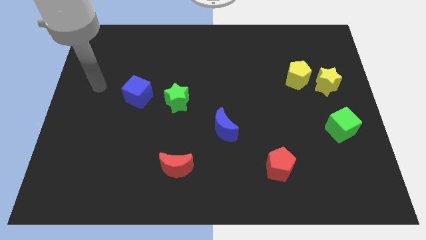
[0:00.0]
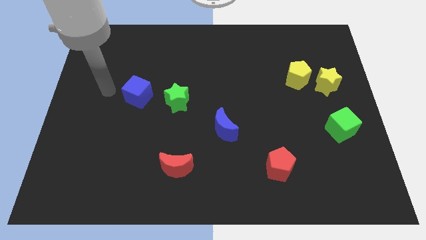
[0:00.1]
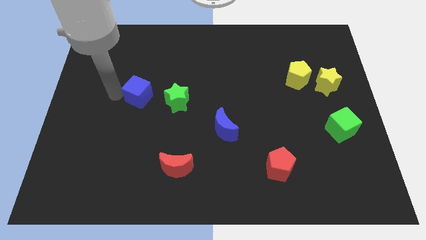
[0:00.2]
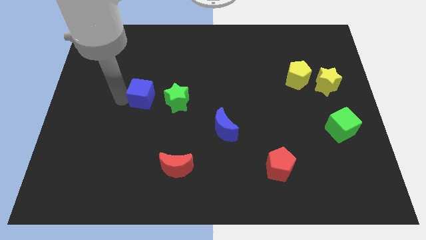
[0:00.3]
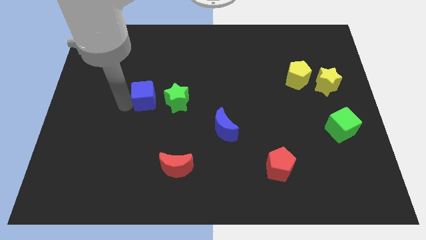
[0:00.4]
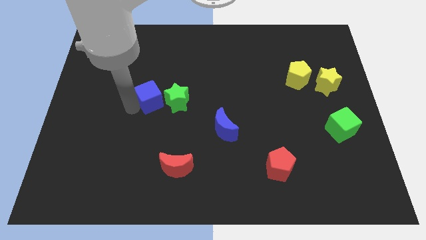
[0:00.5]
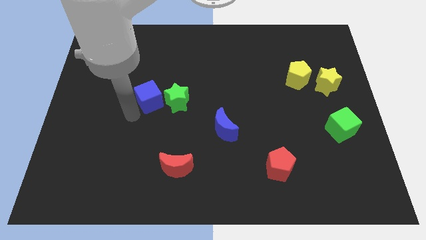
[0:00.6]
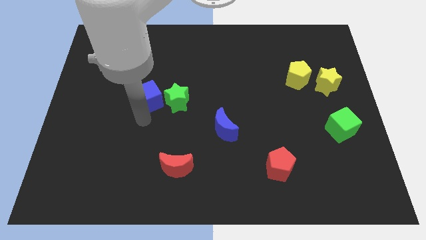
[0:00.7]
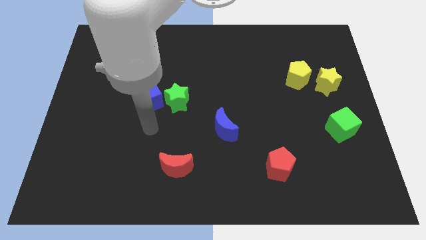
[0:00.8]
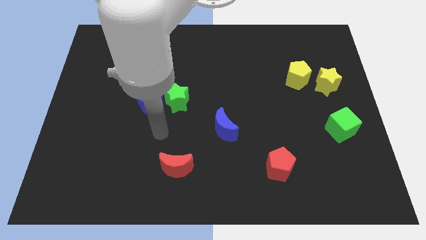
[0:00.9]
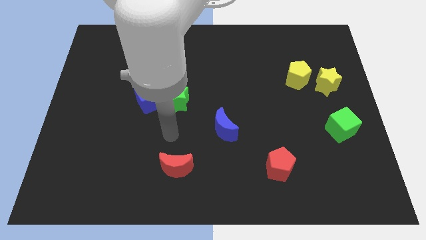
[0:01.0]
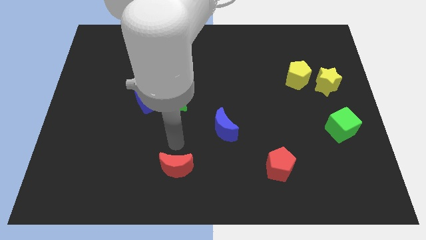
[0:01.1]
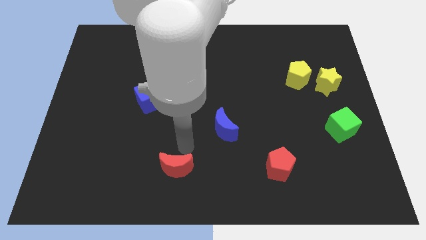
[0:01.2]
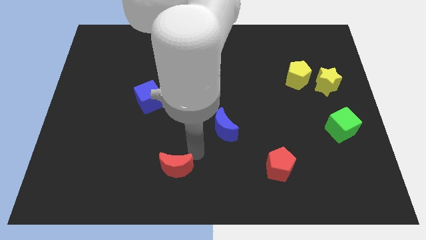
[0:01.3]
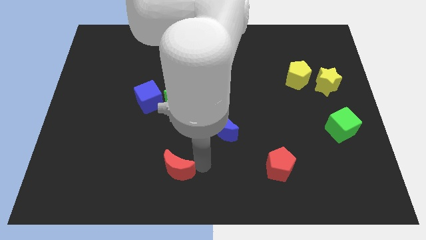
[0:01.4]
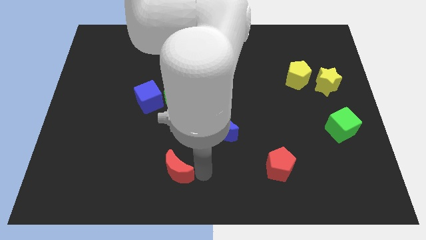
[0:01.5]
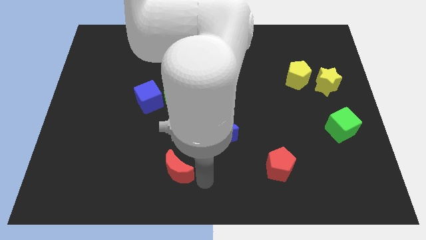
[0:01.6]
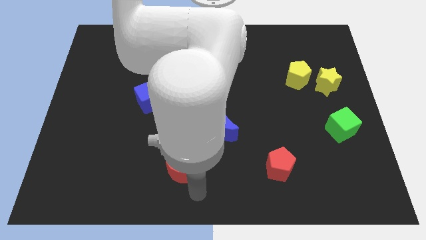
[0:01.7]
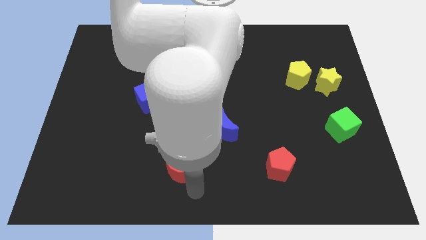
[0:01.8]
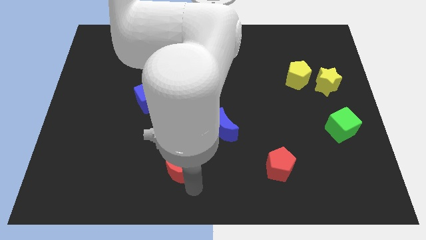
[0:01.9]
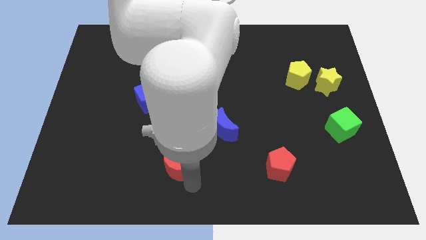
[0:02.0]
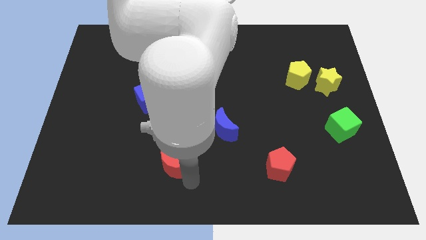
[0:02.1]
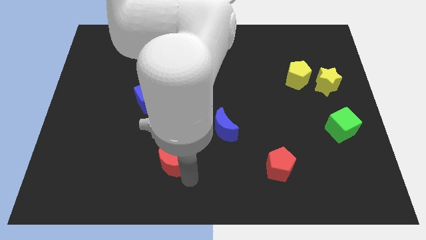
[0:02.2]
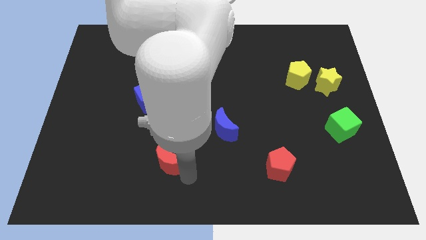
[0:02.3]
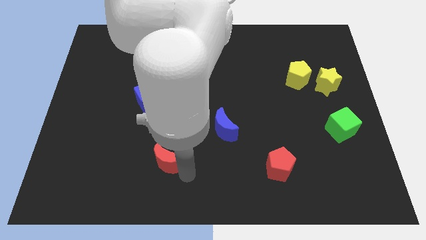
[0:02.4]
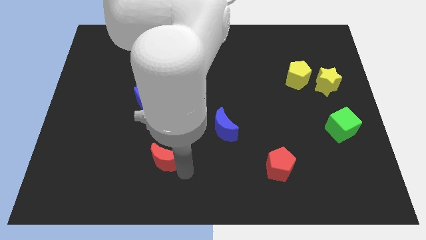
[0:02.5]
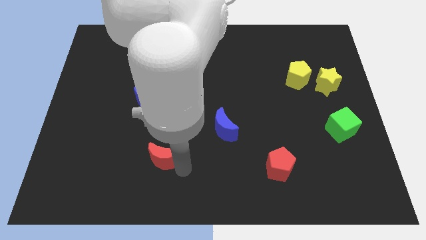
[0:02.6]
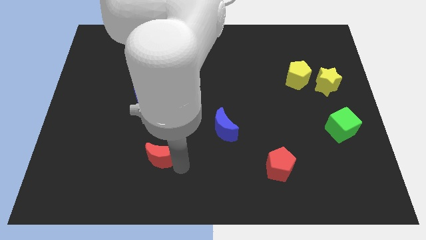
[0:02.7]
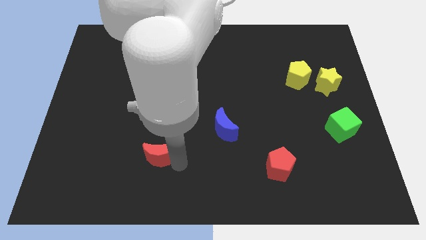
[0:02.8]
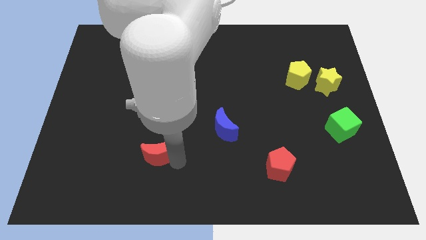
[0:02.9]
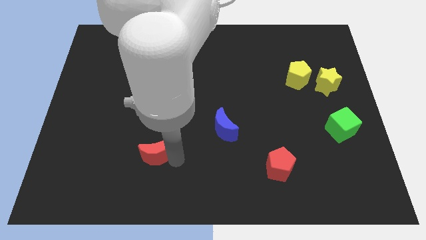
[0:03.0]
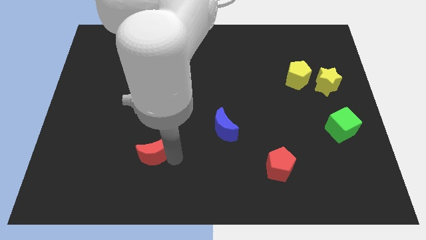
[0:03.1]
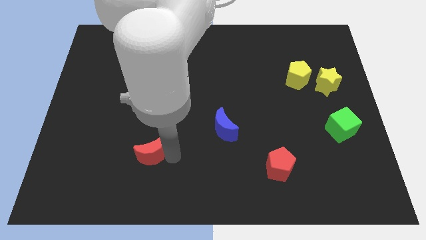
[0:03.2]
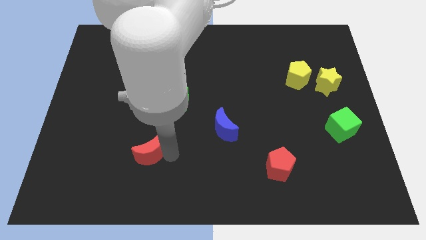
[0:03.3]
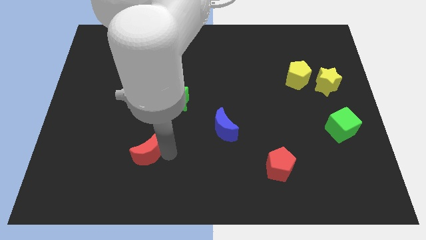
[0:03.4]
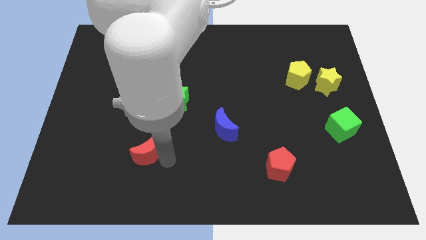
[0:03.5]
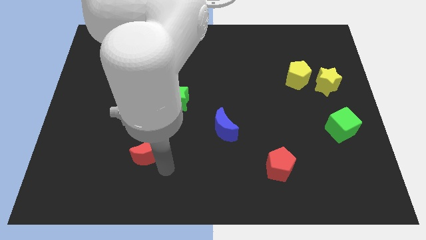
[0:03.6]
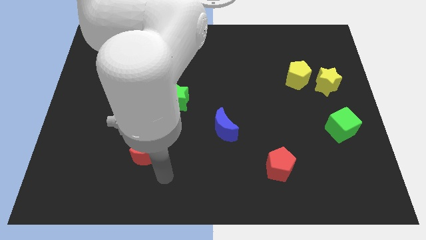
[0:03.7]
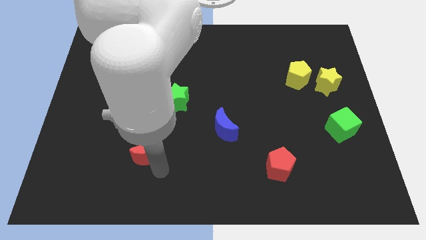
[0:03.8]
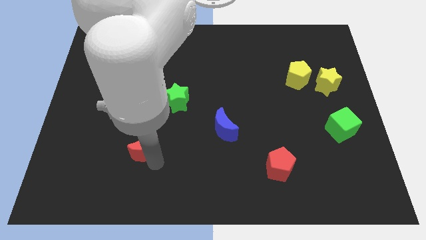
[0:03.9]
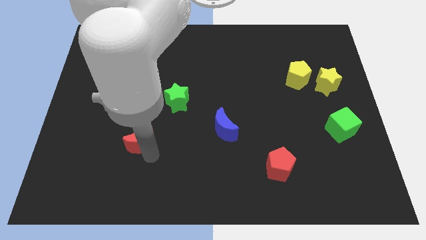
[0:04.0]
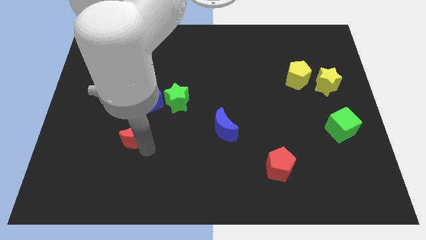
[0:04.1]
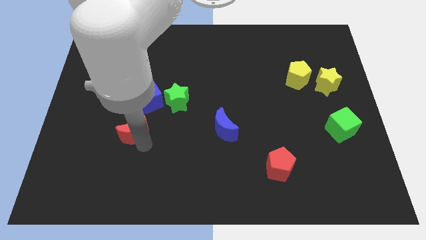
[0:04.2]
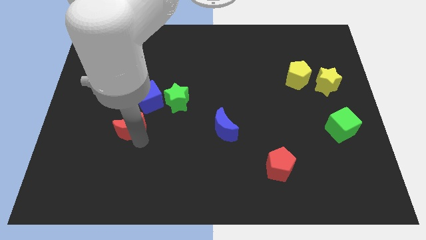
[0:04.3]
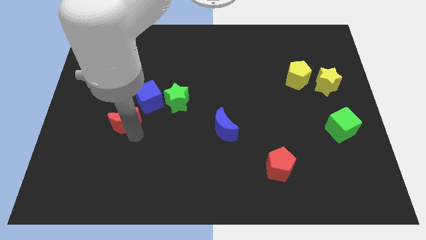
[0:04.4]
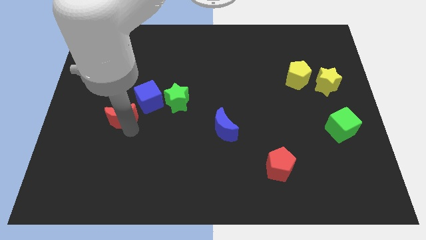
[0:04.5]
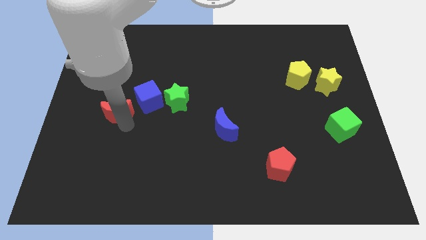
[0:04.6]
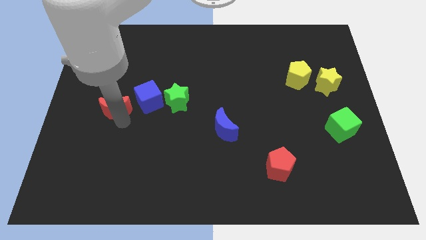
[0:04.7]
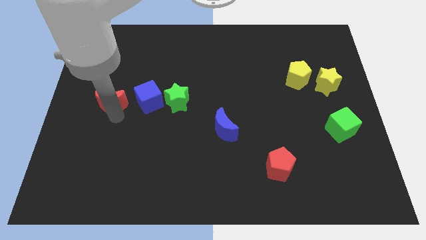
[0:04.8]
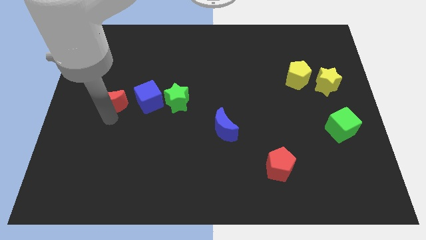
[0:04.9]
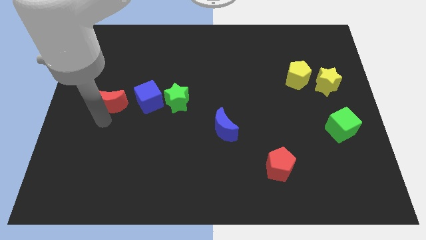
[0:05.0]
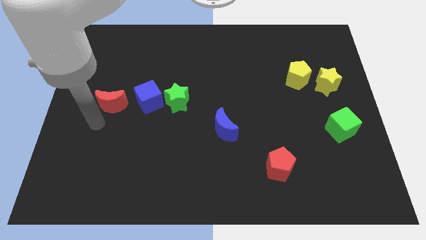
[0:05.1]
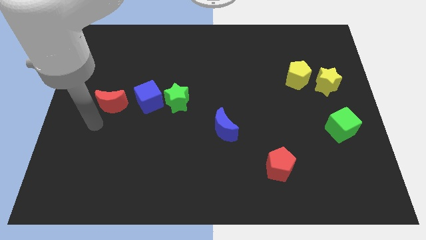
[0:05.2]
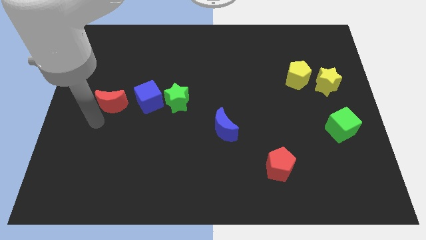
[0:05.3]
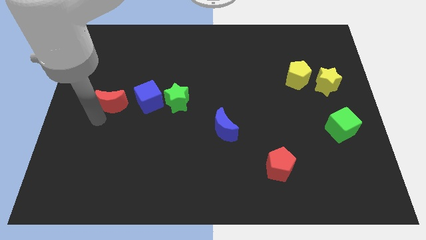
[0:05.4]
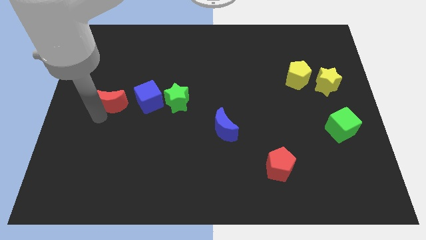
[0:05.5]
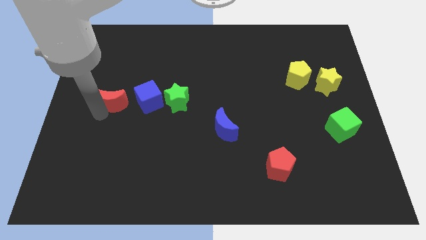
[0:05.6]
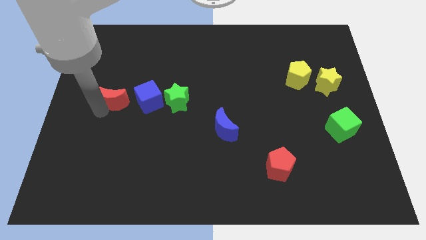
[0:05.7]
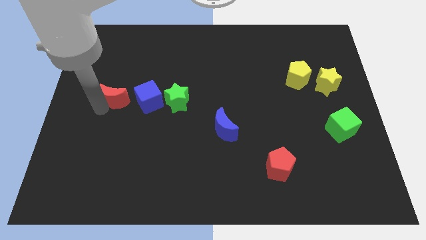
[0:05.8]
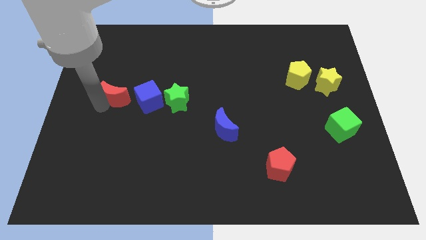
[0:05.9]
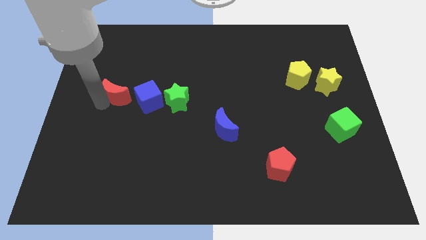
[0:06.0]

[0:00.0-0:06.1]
put the red moon diagonally up and to the left of the blue cube

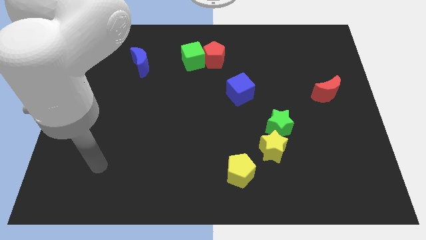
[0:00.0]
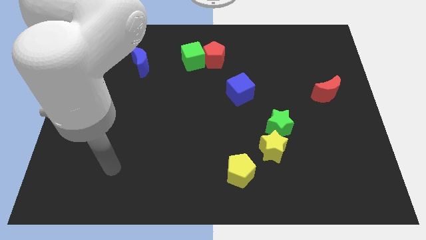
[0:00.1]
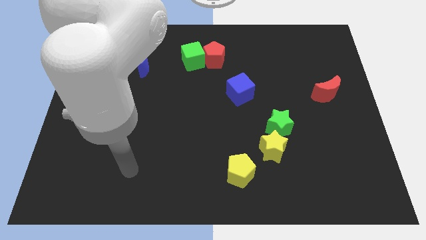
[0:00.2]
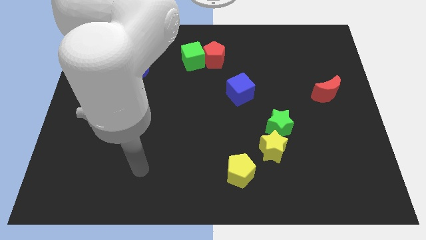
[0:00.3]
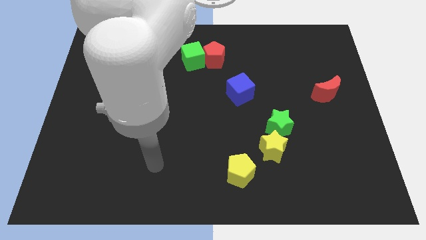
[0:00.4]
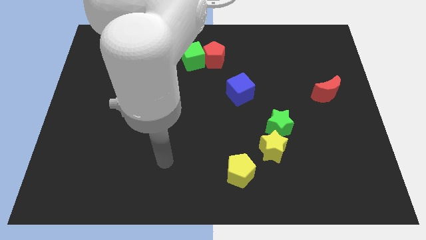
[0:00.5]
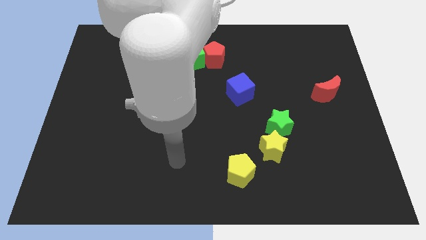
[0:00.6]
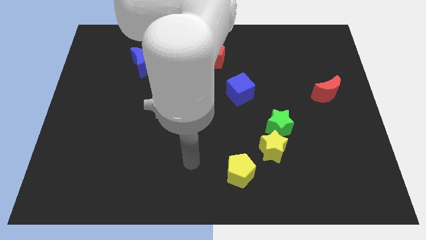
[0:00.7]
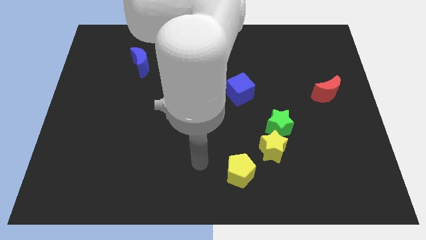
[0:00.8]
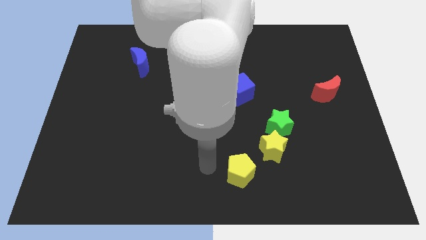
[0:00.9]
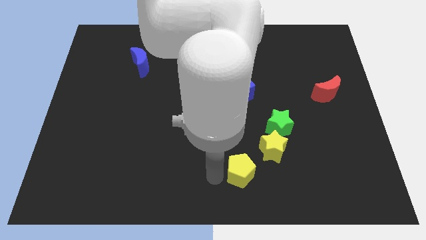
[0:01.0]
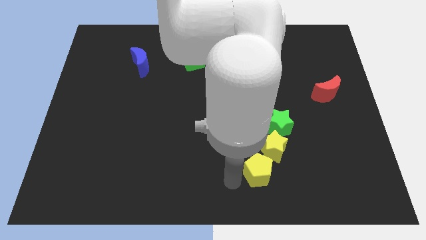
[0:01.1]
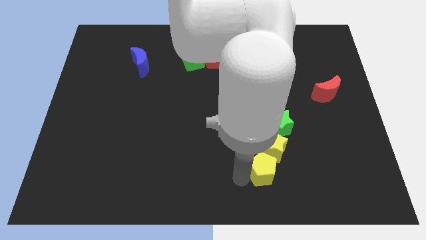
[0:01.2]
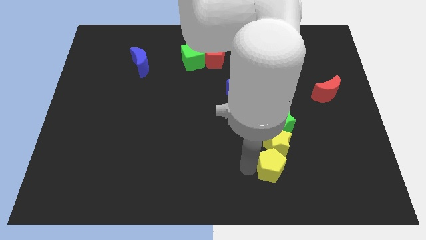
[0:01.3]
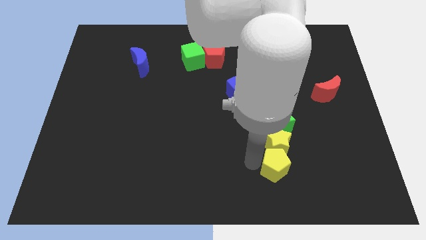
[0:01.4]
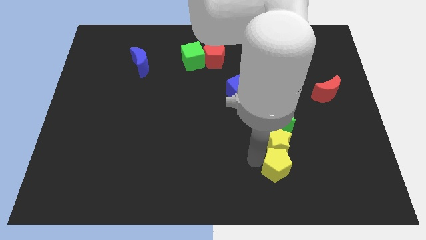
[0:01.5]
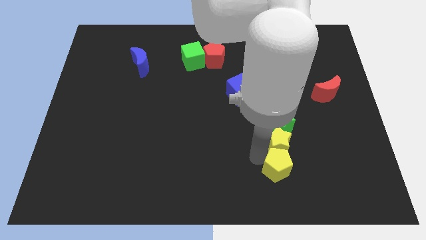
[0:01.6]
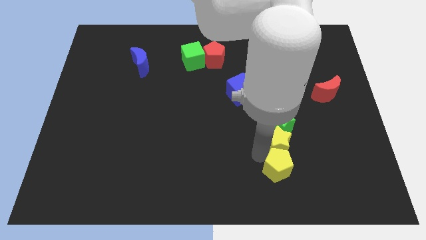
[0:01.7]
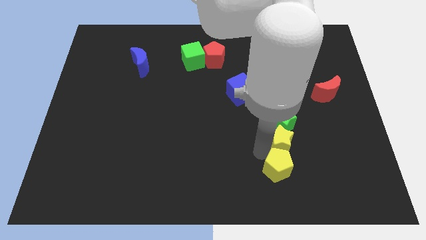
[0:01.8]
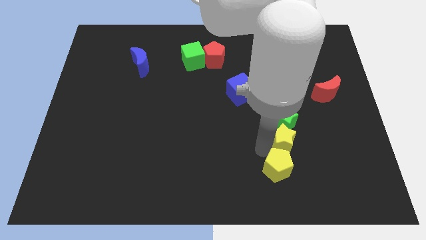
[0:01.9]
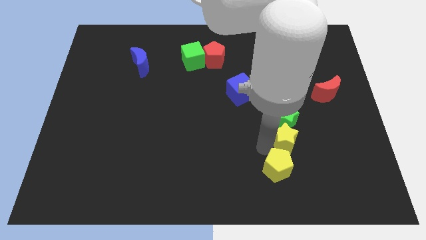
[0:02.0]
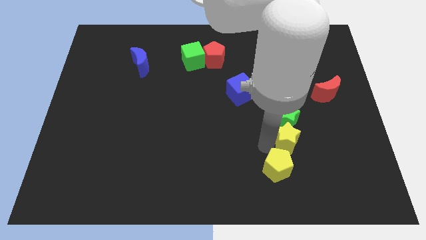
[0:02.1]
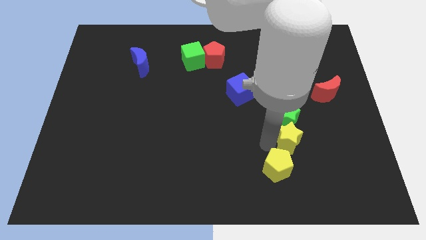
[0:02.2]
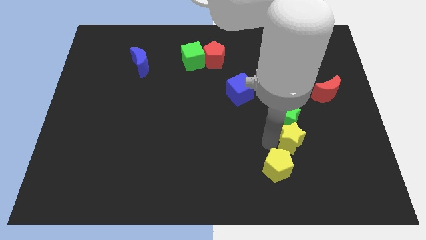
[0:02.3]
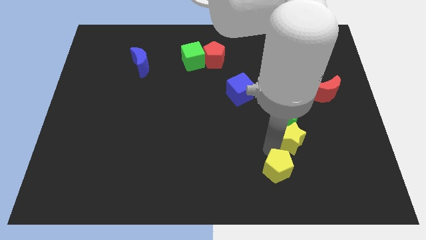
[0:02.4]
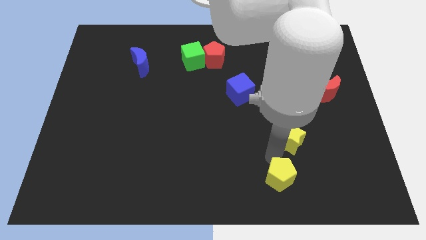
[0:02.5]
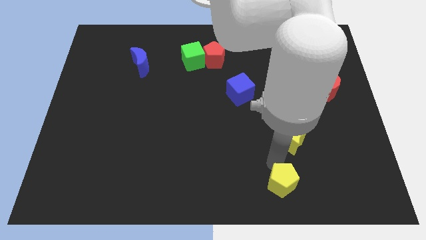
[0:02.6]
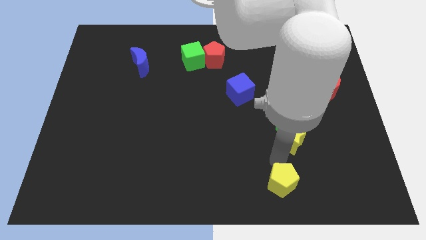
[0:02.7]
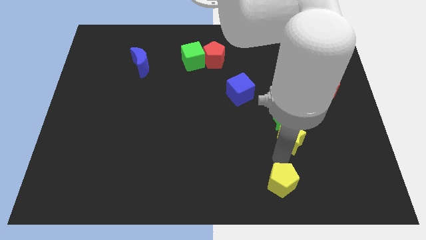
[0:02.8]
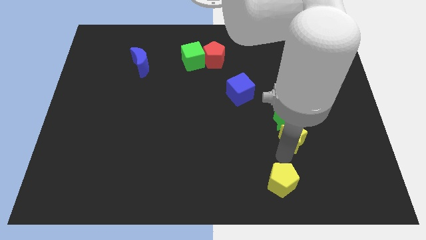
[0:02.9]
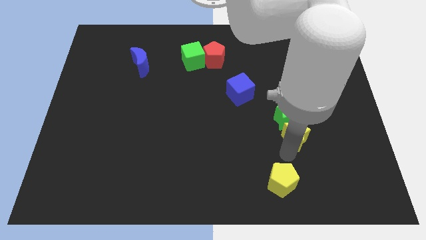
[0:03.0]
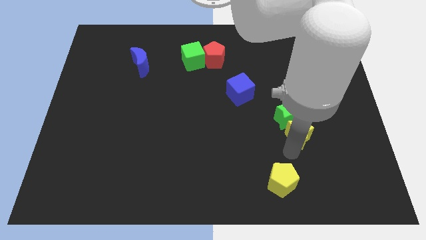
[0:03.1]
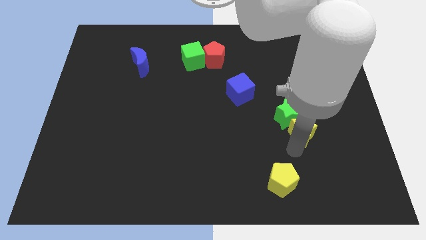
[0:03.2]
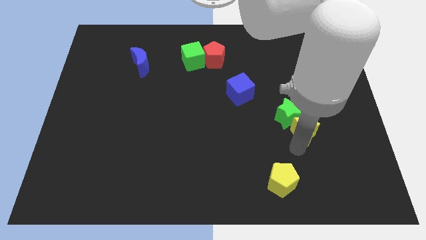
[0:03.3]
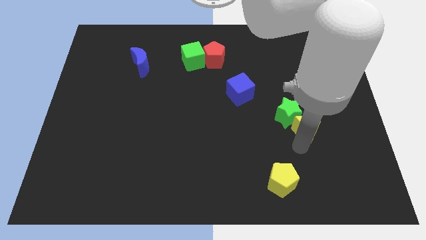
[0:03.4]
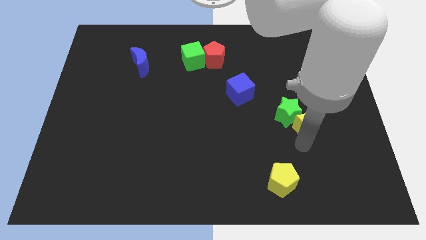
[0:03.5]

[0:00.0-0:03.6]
push the yellow star diagonally down and to the left of the red moon
